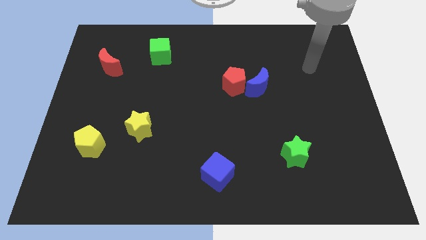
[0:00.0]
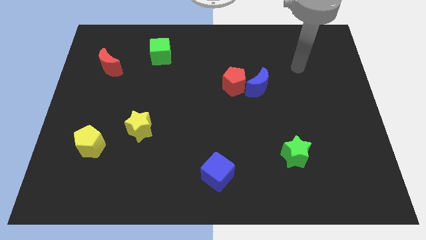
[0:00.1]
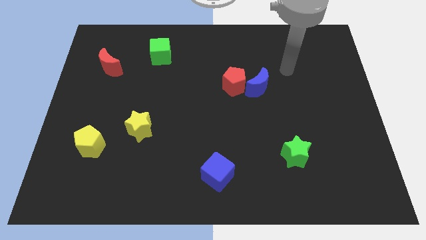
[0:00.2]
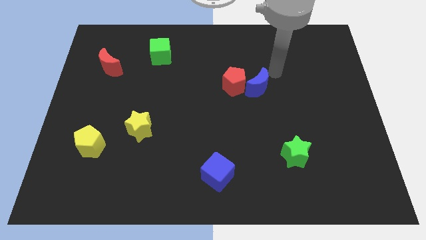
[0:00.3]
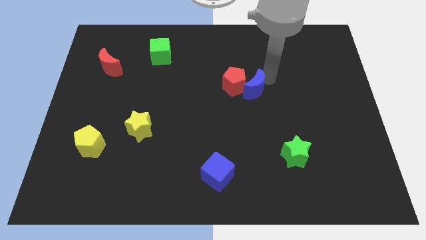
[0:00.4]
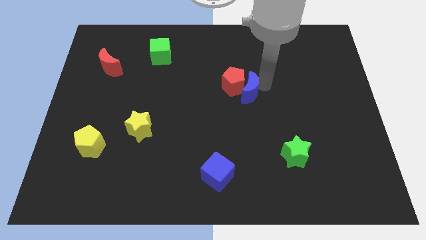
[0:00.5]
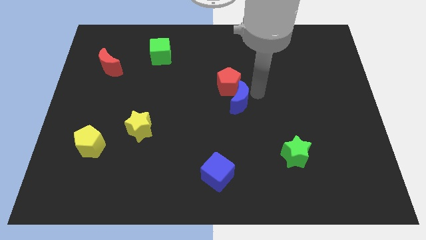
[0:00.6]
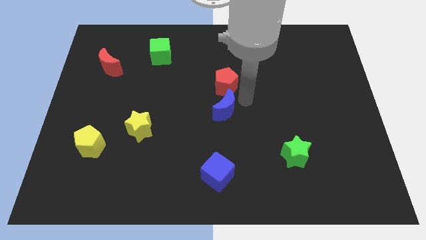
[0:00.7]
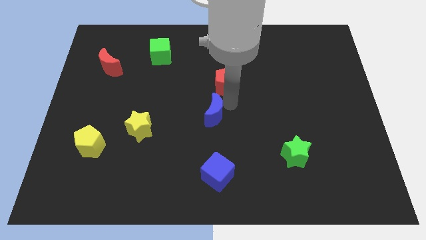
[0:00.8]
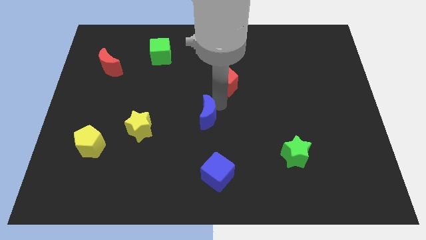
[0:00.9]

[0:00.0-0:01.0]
separate the red pentagon from the blue moon

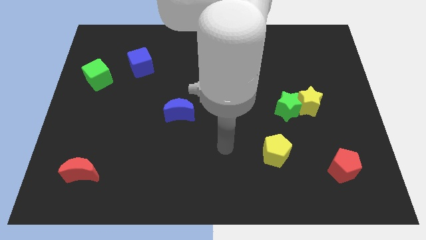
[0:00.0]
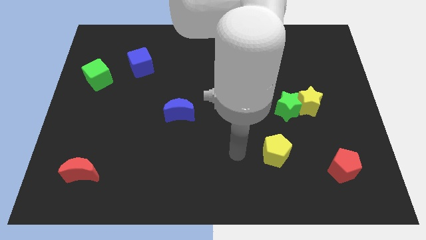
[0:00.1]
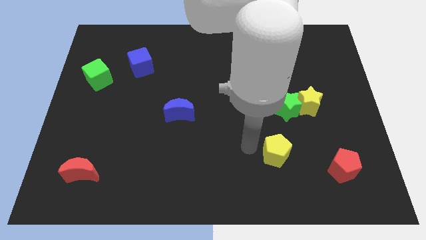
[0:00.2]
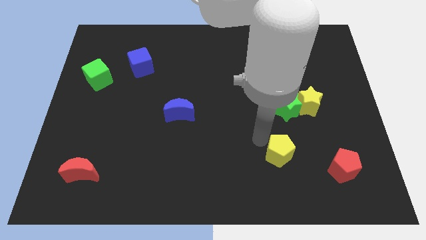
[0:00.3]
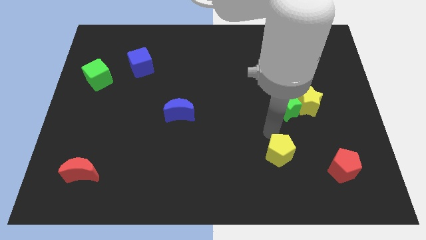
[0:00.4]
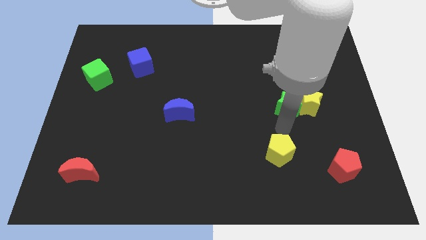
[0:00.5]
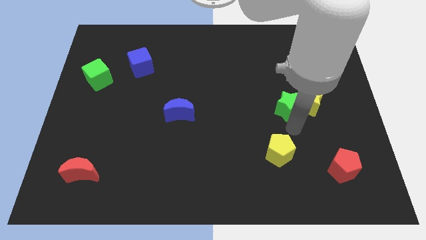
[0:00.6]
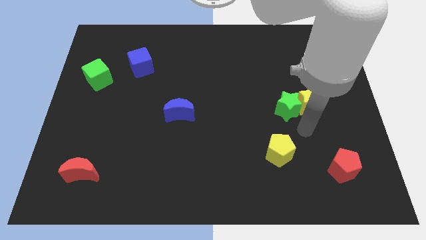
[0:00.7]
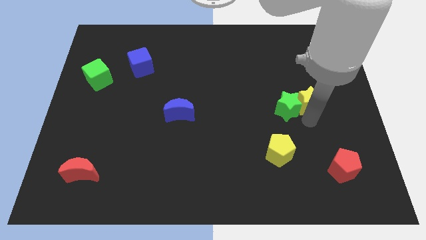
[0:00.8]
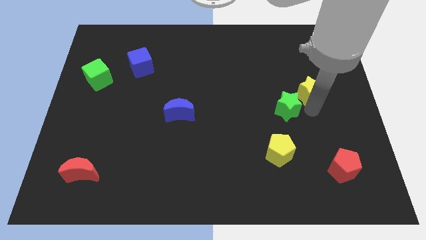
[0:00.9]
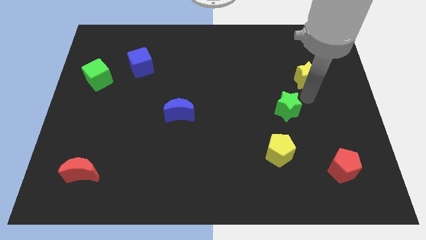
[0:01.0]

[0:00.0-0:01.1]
move the green star away from the yellow star

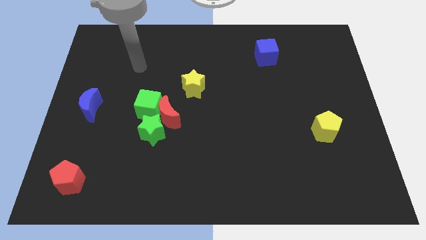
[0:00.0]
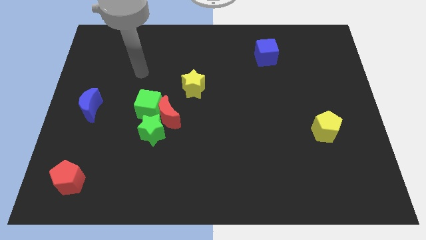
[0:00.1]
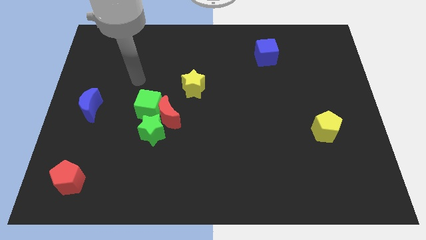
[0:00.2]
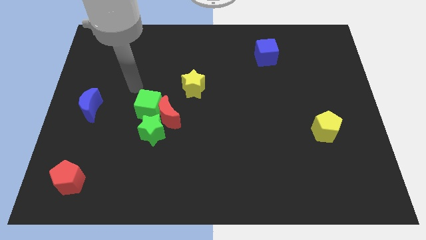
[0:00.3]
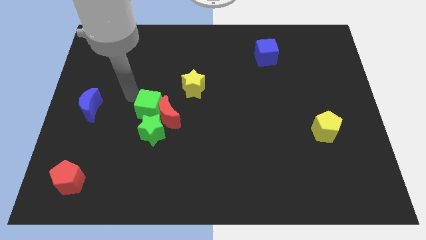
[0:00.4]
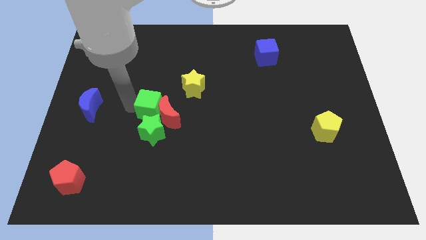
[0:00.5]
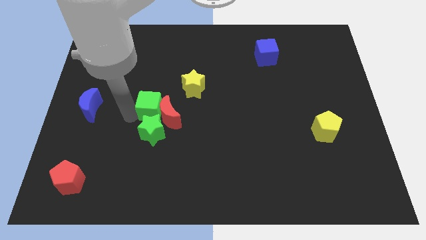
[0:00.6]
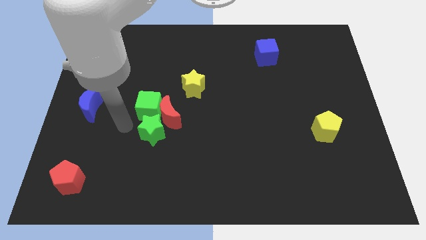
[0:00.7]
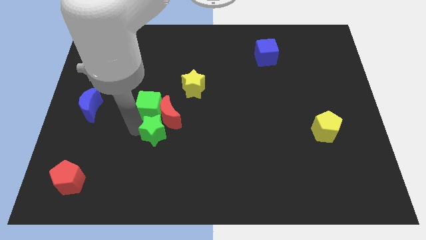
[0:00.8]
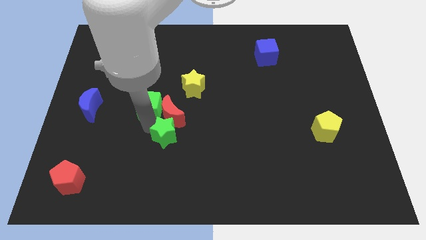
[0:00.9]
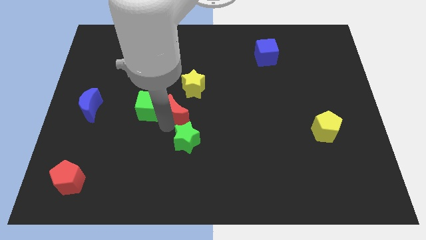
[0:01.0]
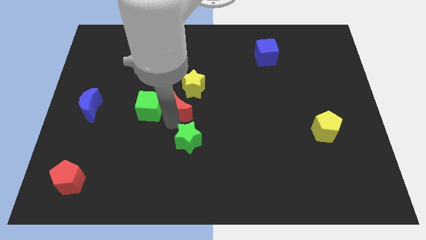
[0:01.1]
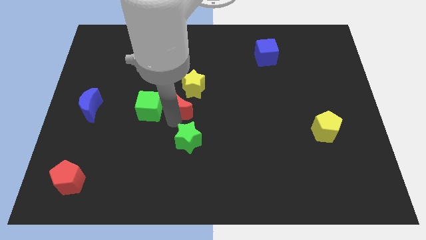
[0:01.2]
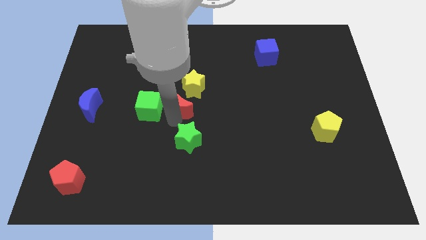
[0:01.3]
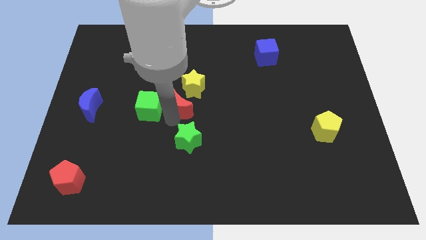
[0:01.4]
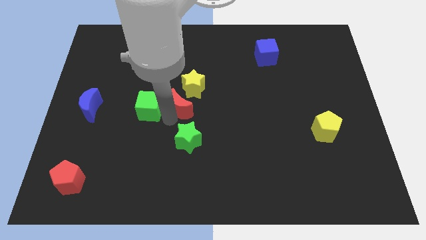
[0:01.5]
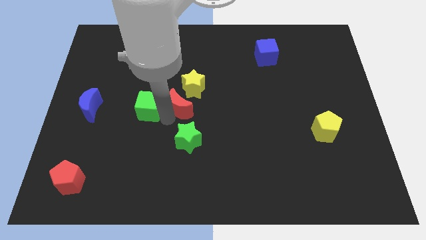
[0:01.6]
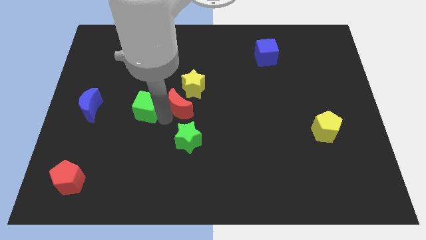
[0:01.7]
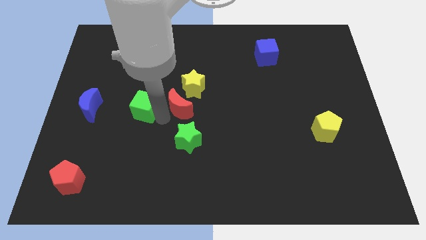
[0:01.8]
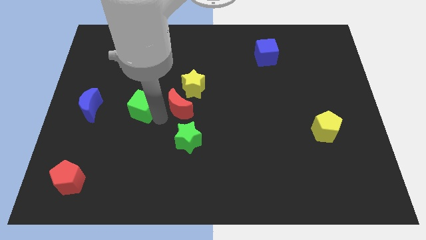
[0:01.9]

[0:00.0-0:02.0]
pull the green cube apart from the red moon and green star

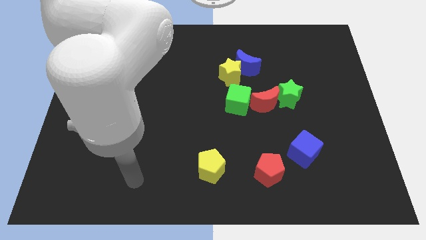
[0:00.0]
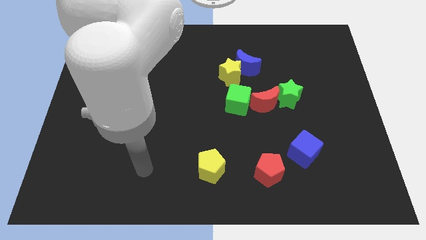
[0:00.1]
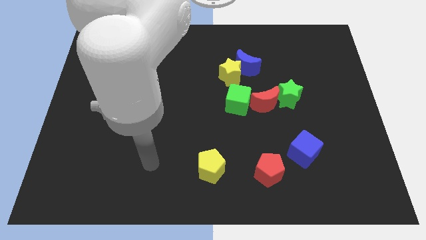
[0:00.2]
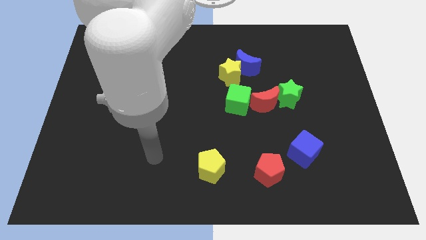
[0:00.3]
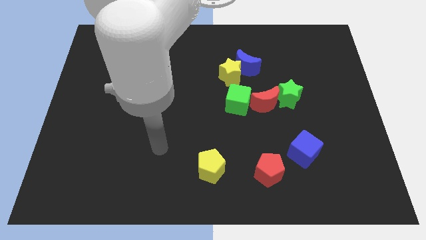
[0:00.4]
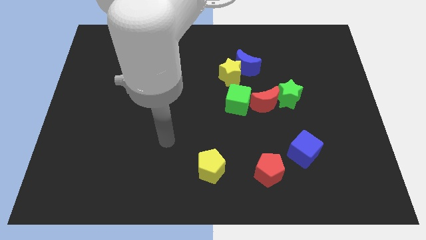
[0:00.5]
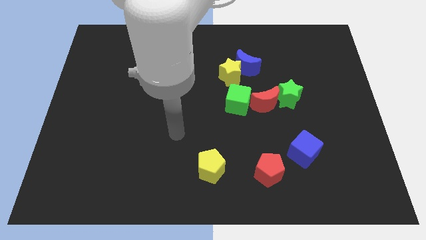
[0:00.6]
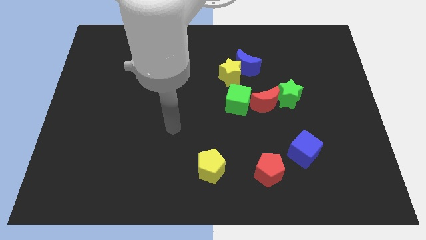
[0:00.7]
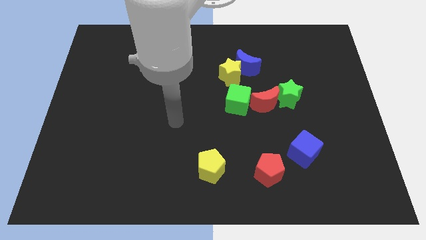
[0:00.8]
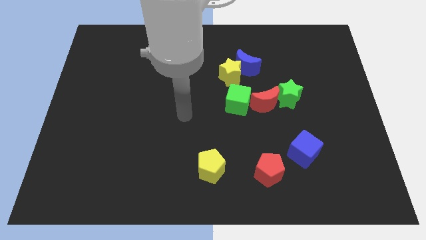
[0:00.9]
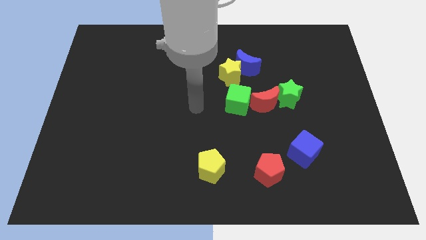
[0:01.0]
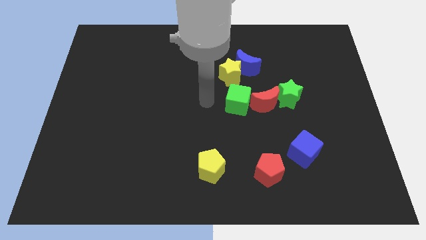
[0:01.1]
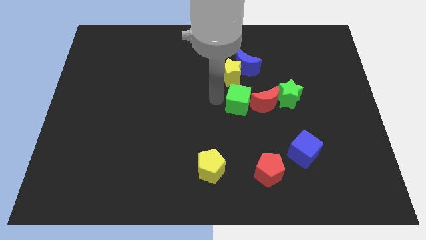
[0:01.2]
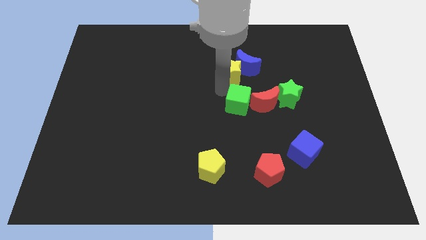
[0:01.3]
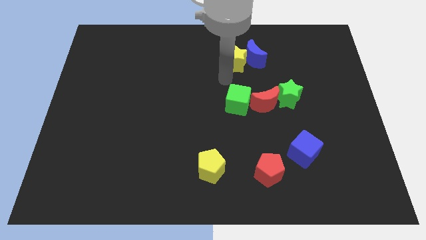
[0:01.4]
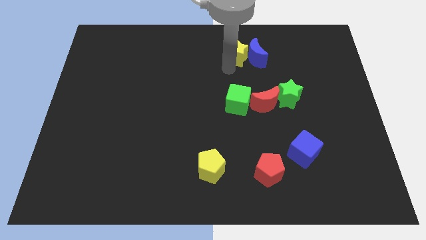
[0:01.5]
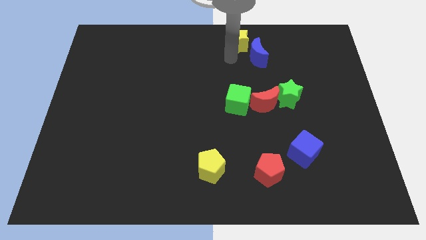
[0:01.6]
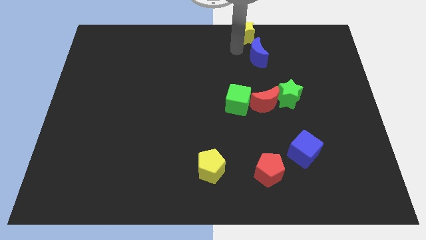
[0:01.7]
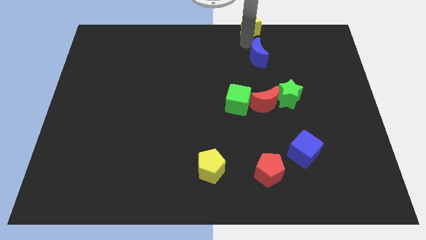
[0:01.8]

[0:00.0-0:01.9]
pull the blue moon apart from the yellow star

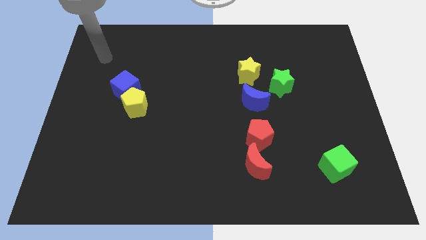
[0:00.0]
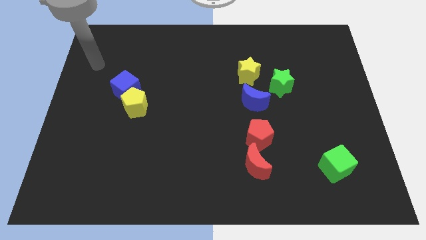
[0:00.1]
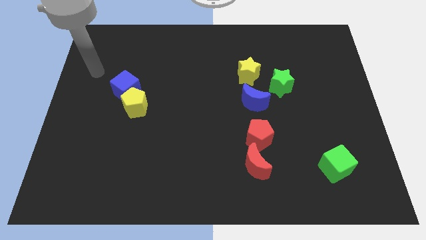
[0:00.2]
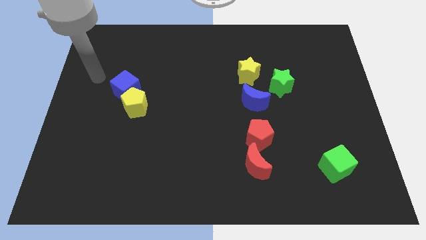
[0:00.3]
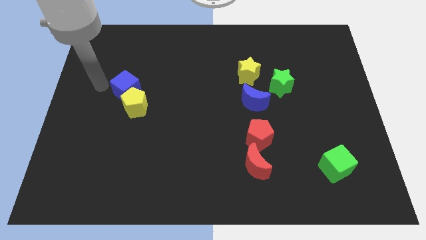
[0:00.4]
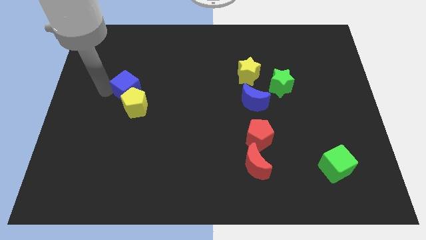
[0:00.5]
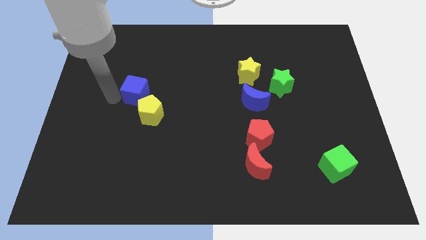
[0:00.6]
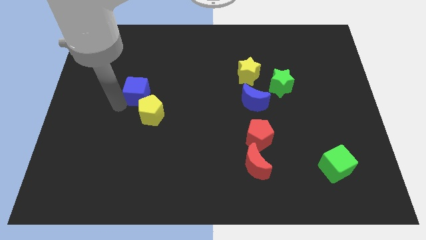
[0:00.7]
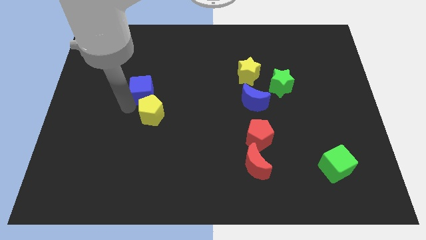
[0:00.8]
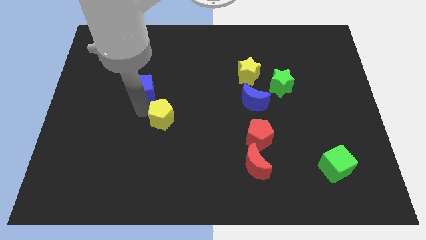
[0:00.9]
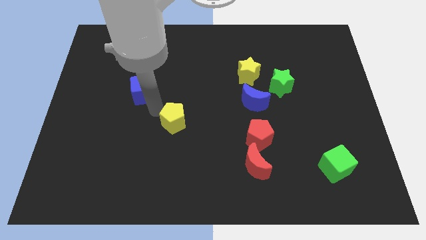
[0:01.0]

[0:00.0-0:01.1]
move the blue cube away from the yellow pentagon

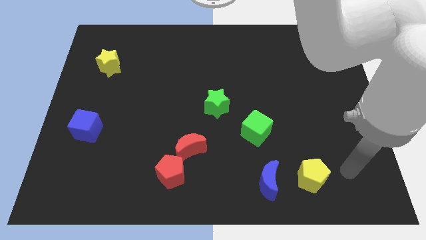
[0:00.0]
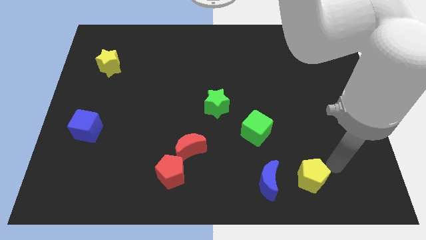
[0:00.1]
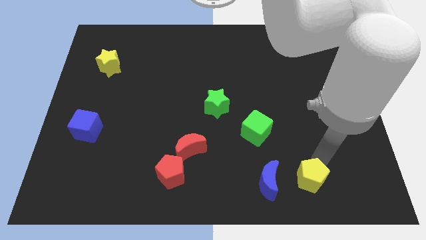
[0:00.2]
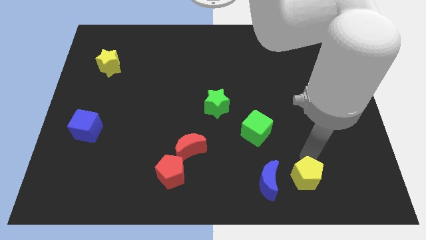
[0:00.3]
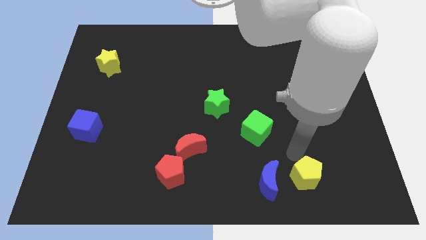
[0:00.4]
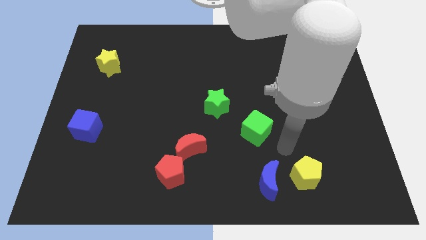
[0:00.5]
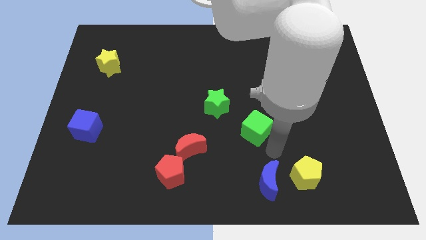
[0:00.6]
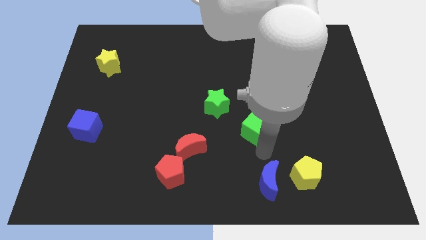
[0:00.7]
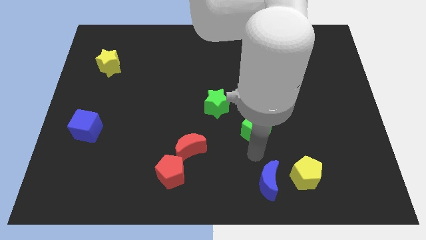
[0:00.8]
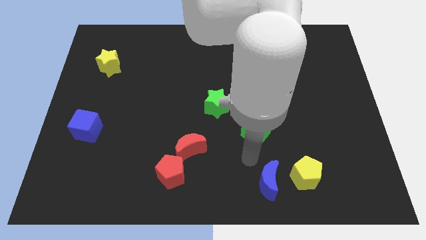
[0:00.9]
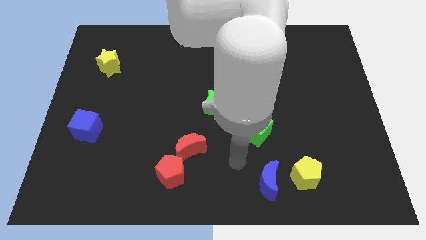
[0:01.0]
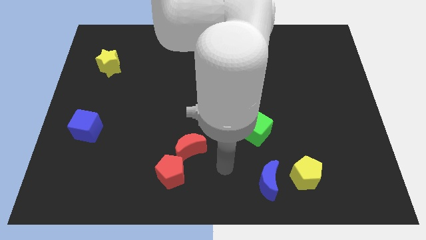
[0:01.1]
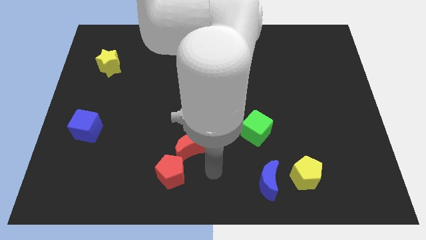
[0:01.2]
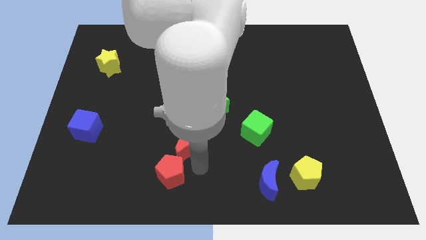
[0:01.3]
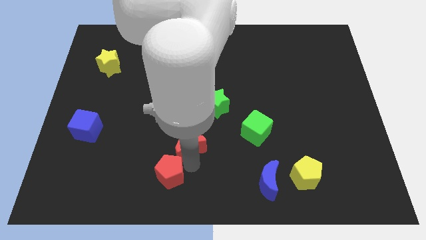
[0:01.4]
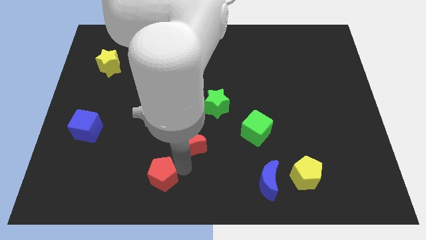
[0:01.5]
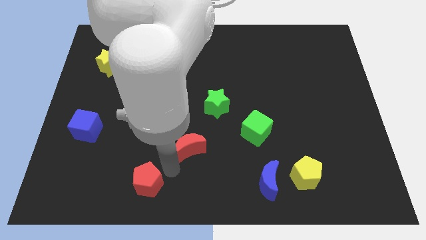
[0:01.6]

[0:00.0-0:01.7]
separate the red moon from the red pentagon

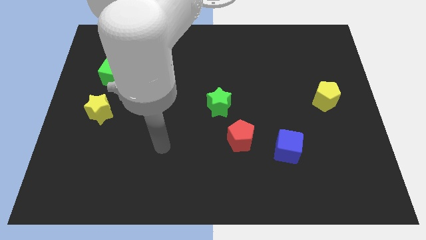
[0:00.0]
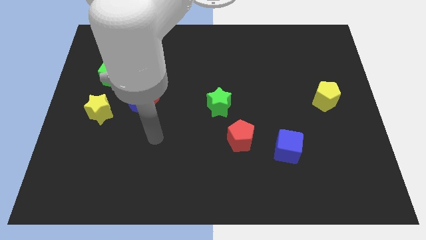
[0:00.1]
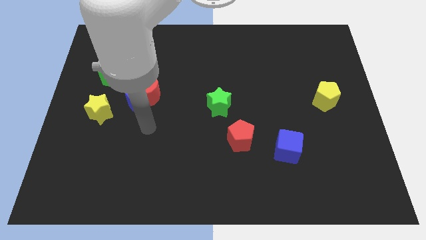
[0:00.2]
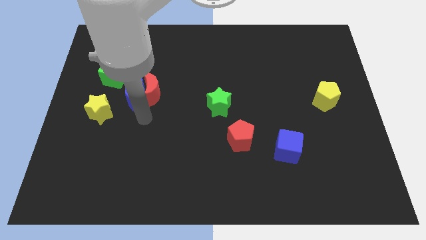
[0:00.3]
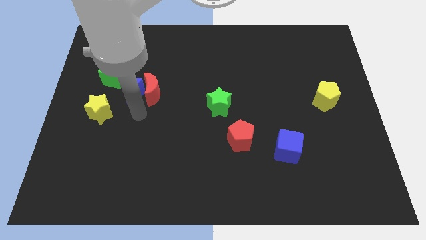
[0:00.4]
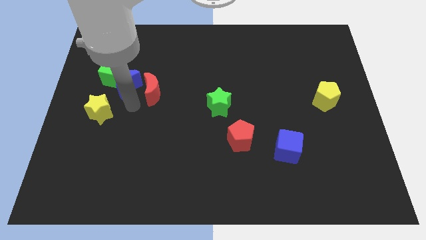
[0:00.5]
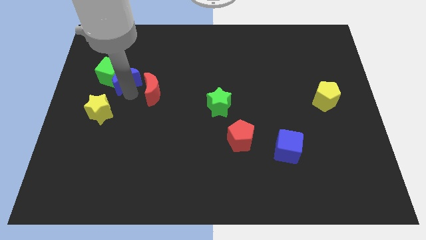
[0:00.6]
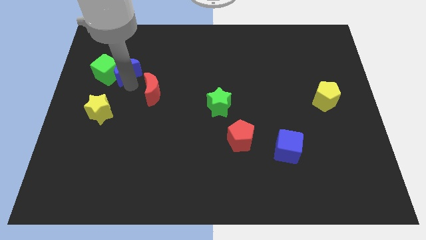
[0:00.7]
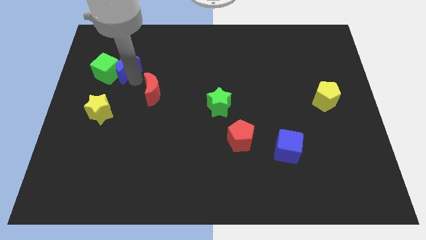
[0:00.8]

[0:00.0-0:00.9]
separate the red moon from the blue moon
